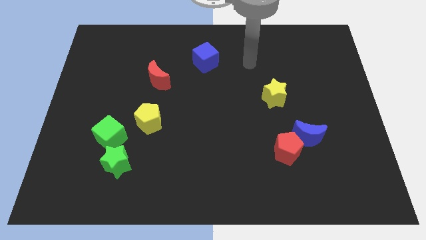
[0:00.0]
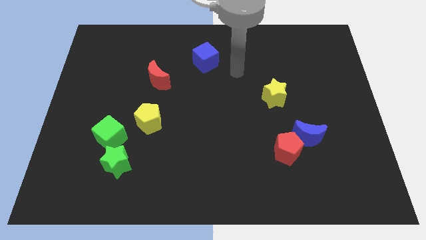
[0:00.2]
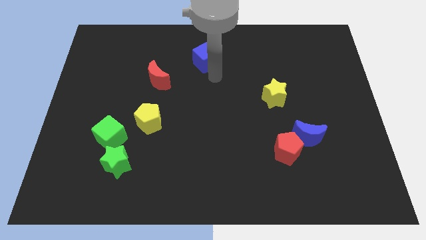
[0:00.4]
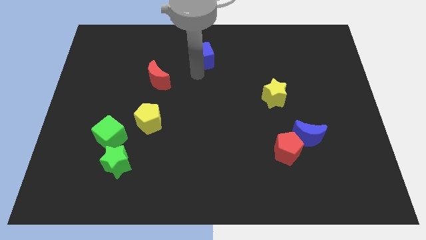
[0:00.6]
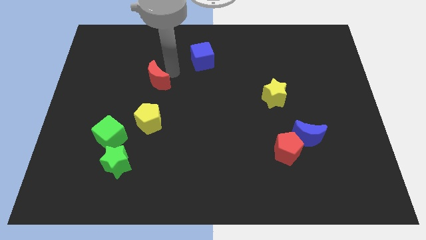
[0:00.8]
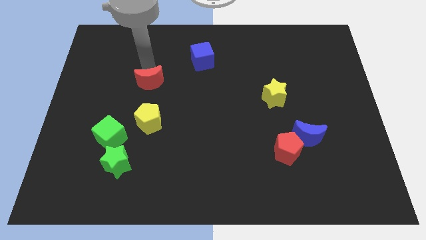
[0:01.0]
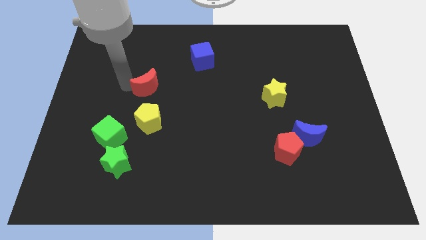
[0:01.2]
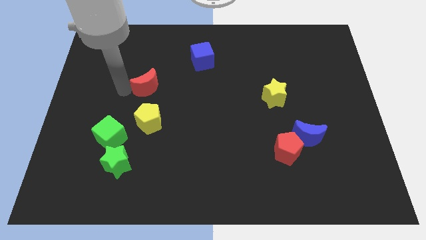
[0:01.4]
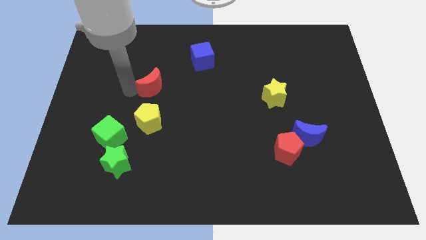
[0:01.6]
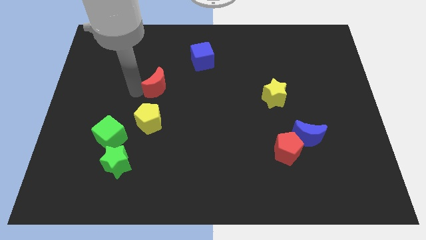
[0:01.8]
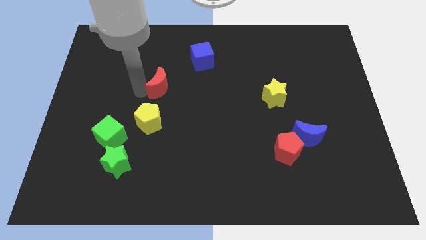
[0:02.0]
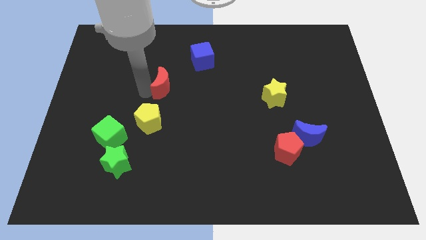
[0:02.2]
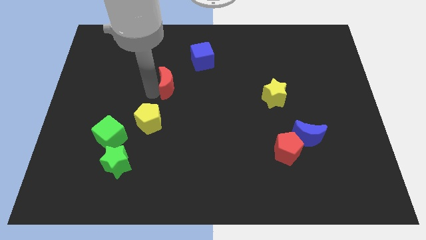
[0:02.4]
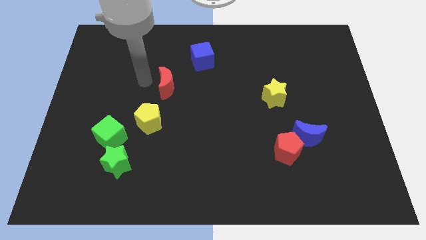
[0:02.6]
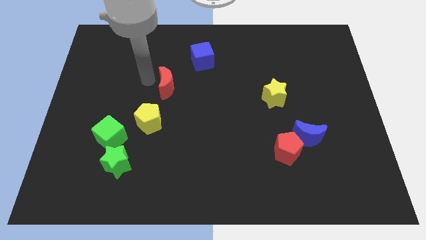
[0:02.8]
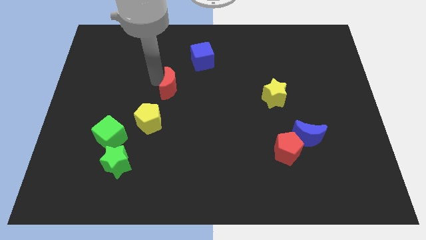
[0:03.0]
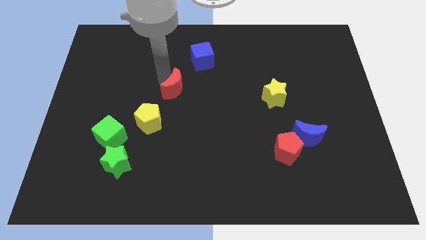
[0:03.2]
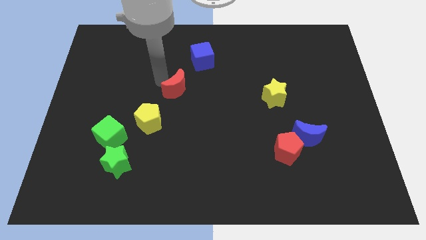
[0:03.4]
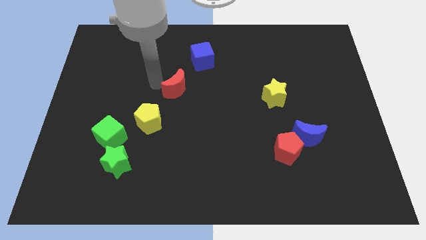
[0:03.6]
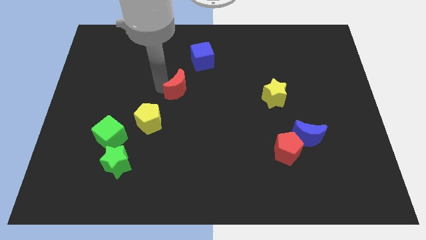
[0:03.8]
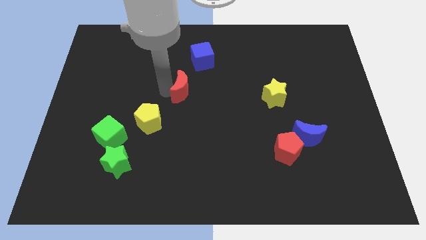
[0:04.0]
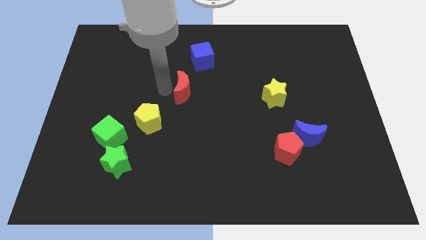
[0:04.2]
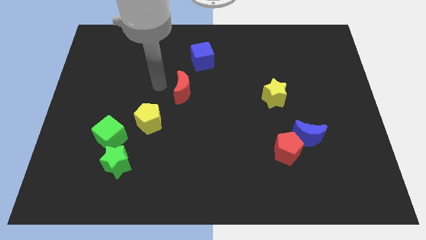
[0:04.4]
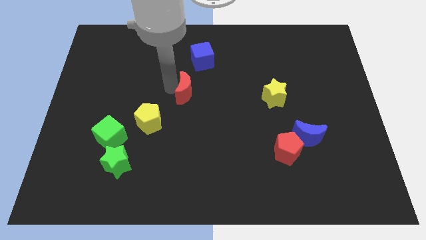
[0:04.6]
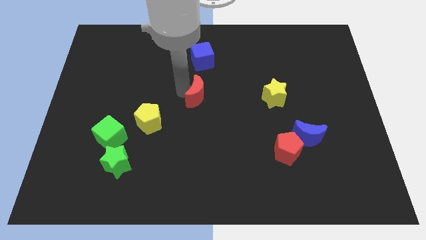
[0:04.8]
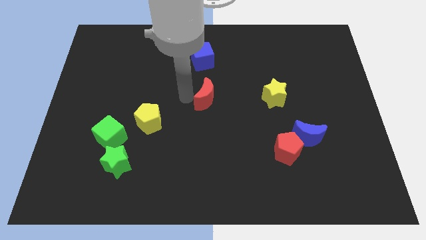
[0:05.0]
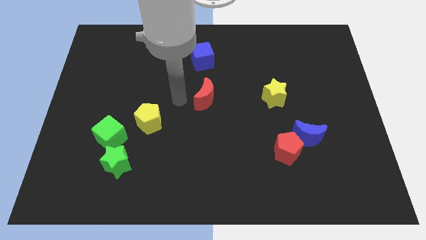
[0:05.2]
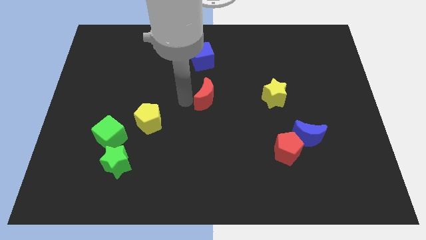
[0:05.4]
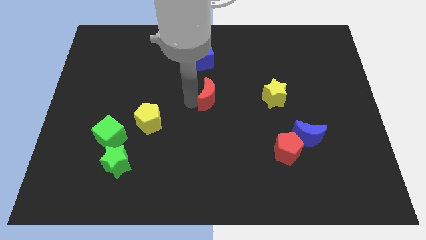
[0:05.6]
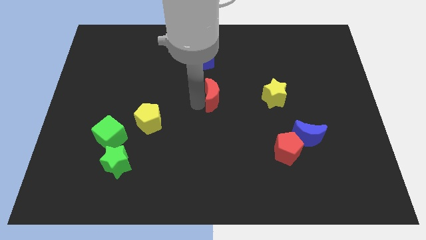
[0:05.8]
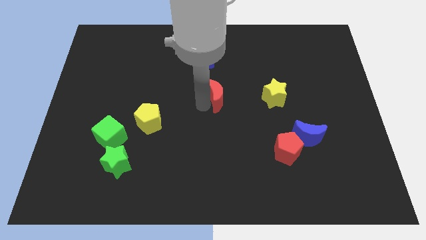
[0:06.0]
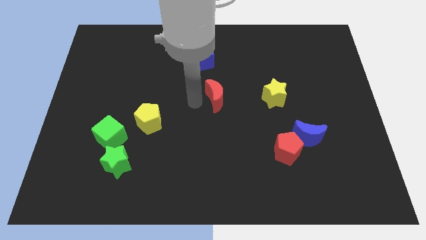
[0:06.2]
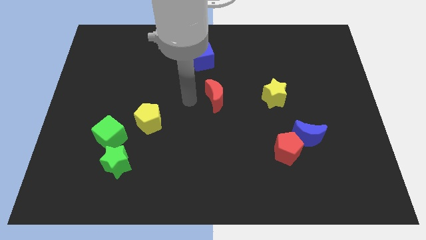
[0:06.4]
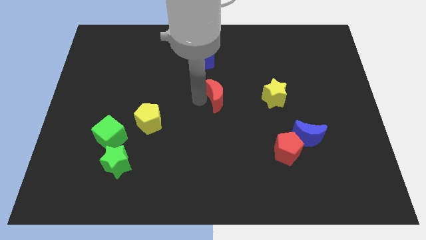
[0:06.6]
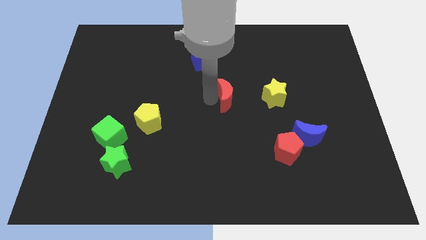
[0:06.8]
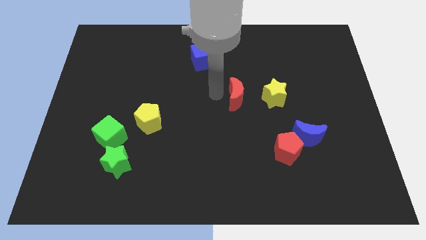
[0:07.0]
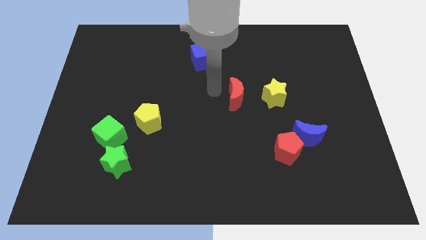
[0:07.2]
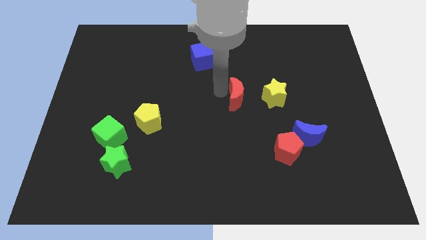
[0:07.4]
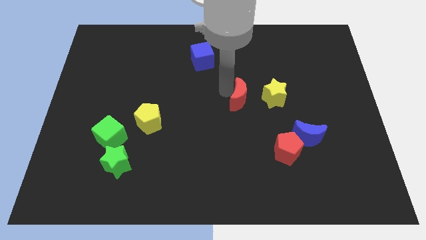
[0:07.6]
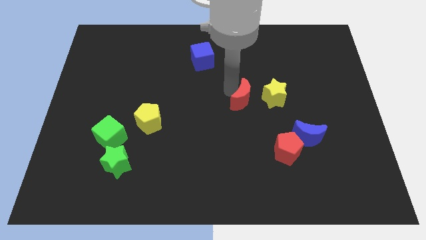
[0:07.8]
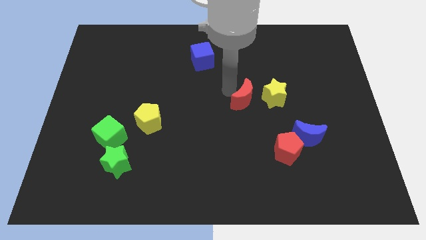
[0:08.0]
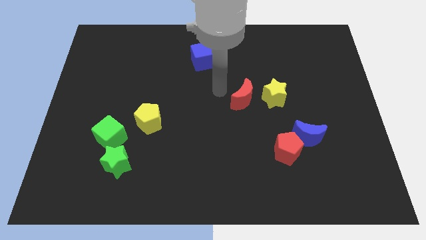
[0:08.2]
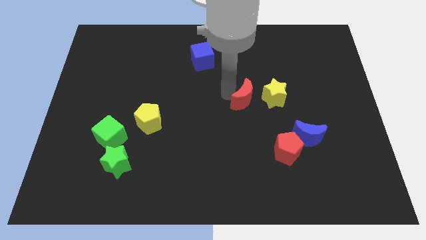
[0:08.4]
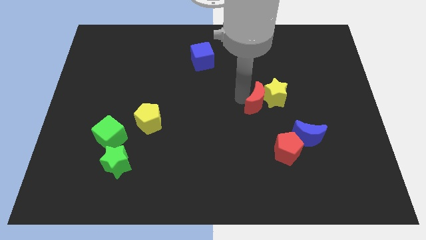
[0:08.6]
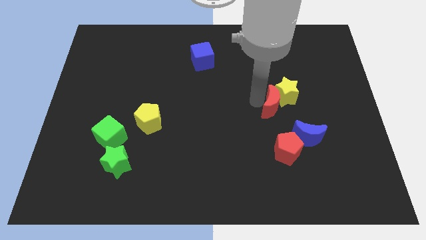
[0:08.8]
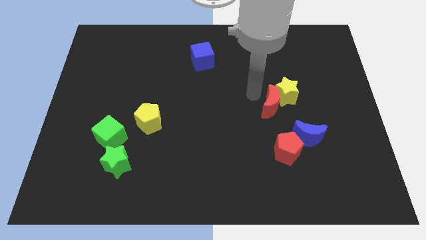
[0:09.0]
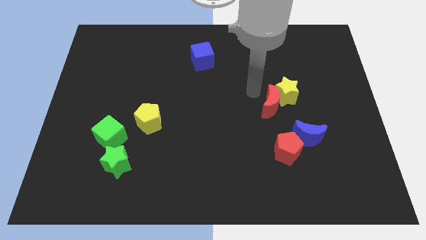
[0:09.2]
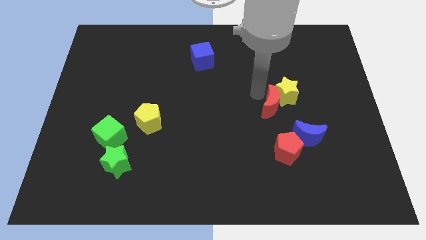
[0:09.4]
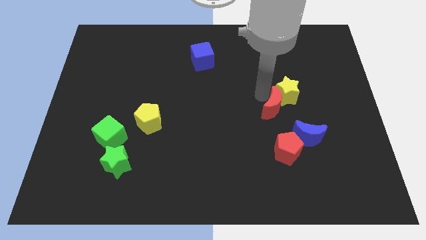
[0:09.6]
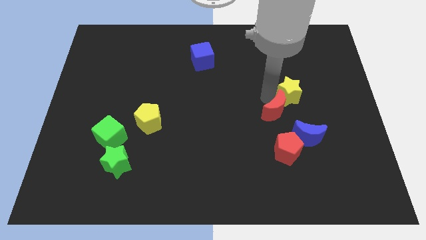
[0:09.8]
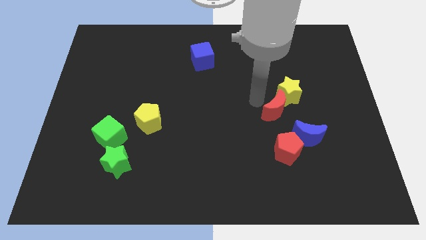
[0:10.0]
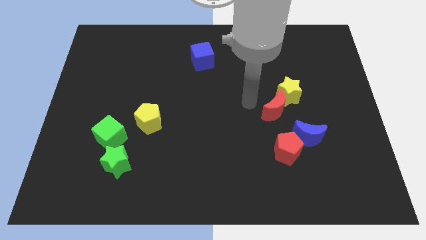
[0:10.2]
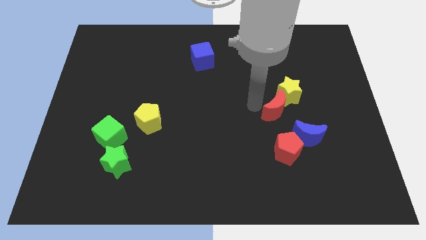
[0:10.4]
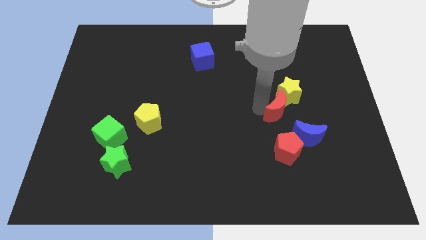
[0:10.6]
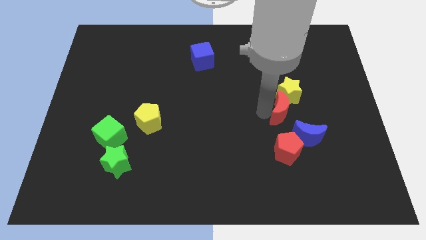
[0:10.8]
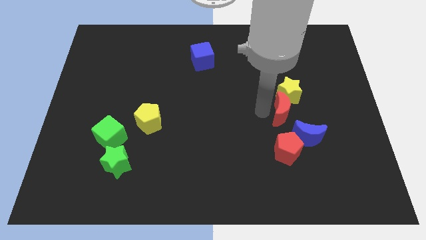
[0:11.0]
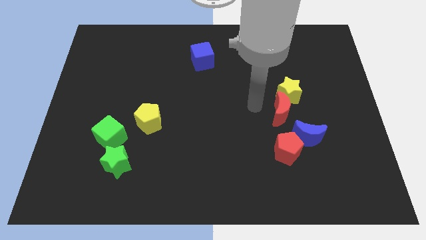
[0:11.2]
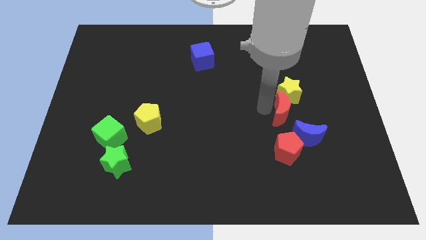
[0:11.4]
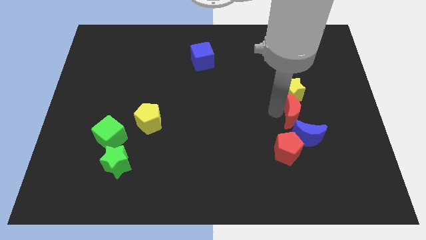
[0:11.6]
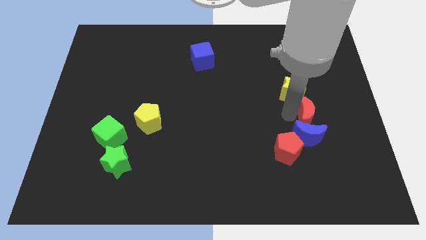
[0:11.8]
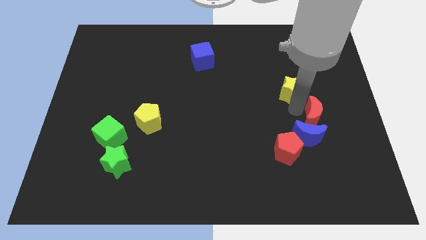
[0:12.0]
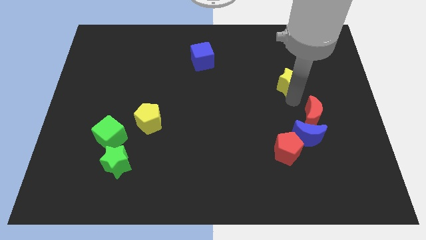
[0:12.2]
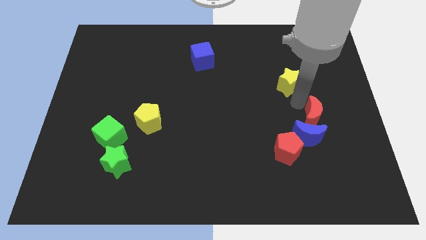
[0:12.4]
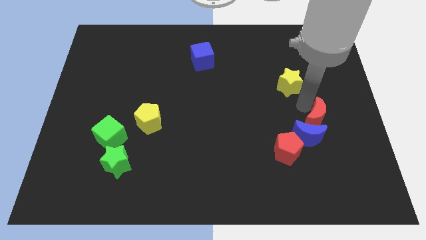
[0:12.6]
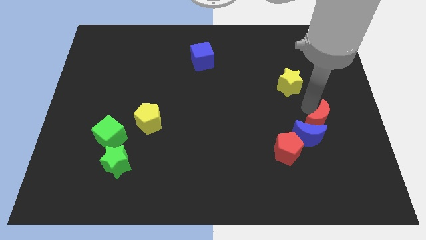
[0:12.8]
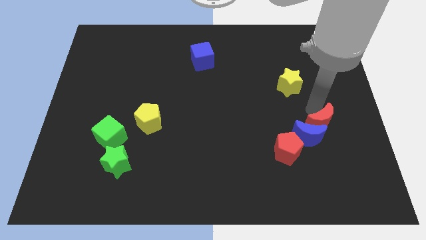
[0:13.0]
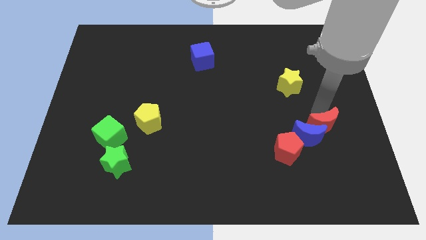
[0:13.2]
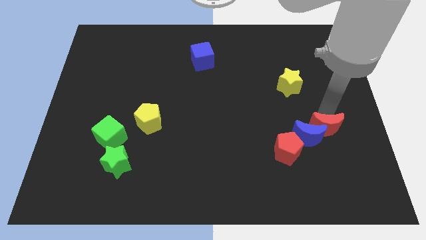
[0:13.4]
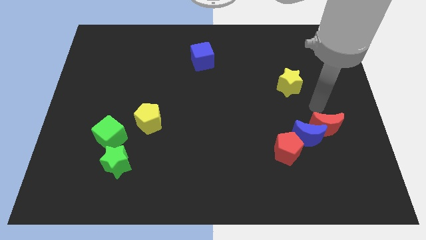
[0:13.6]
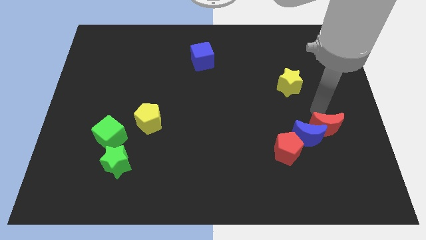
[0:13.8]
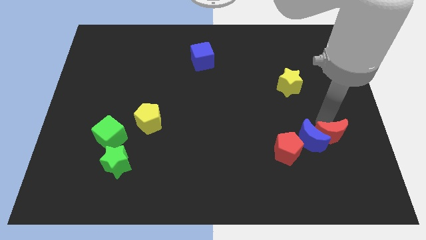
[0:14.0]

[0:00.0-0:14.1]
move the red moon to the right side of the red pentagon

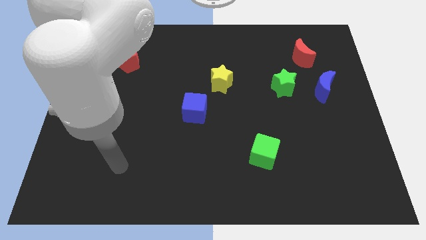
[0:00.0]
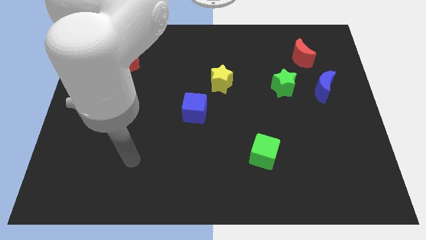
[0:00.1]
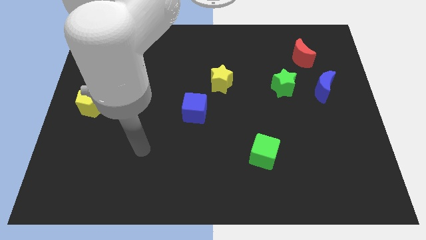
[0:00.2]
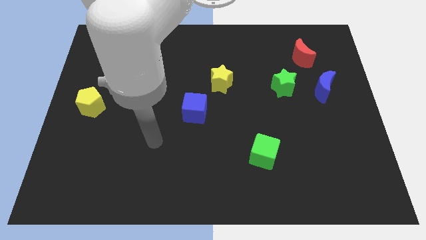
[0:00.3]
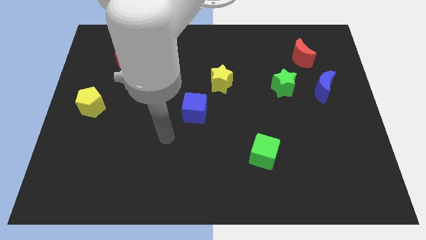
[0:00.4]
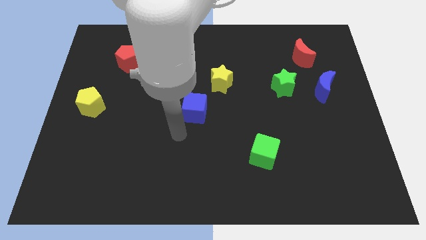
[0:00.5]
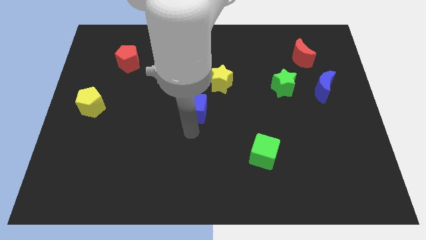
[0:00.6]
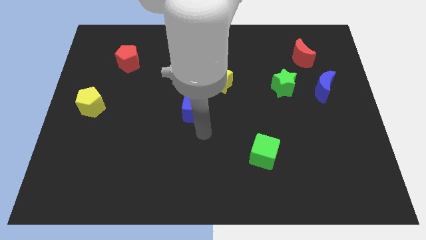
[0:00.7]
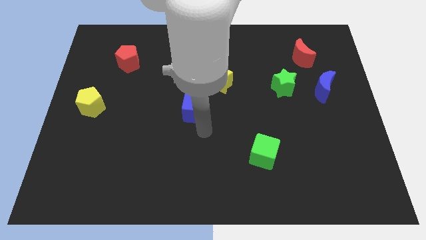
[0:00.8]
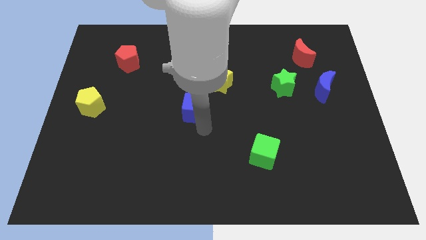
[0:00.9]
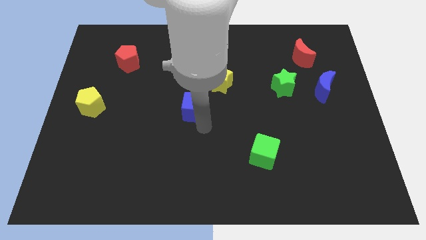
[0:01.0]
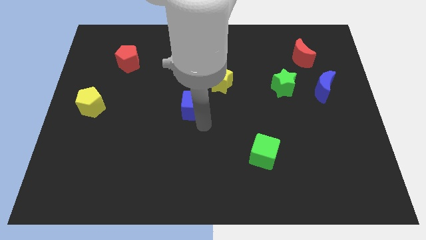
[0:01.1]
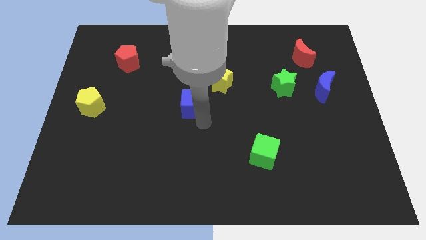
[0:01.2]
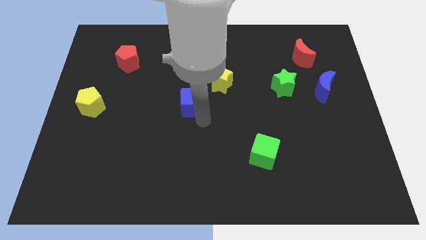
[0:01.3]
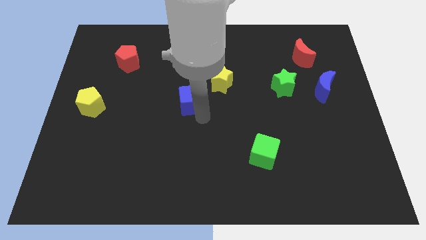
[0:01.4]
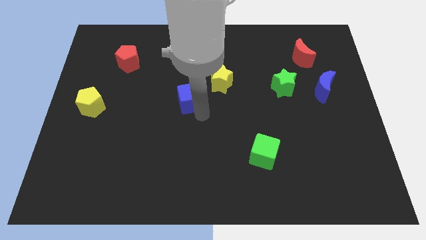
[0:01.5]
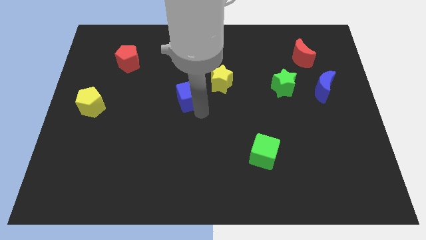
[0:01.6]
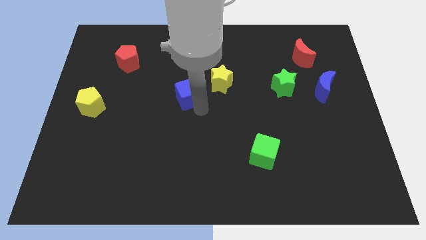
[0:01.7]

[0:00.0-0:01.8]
push the blue cube left of the yellow star
